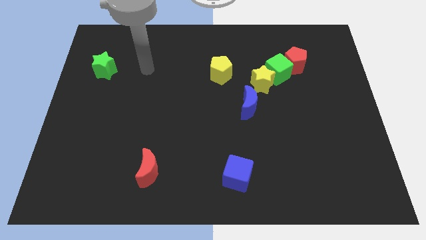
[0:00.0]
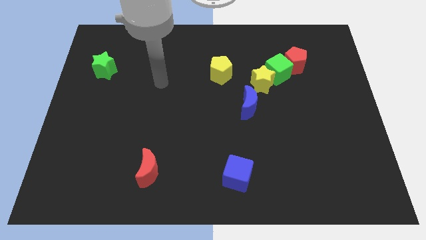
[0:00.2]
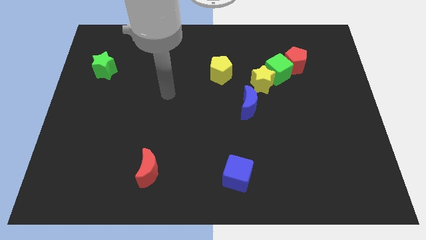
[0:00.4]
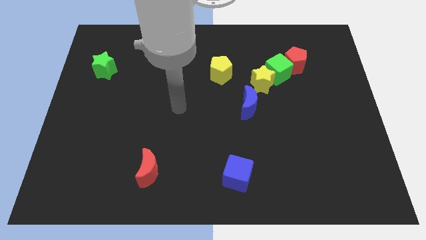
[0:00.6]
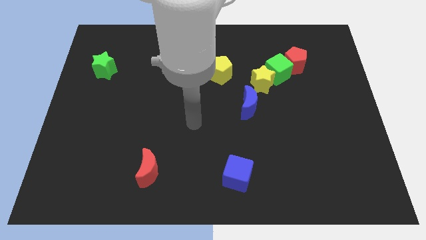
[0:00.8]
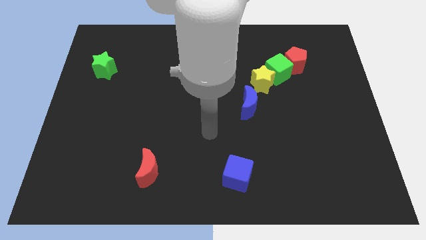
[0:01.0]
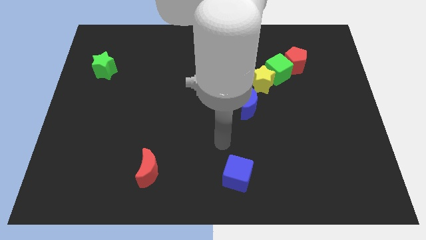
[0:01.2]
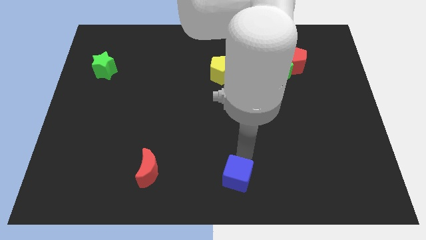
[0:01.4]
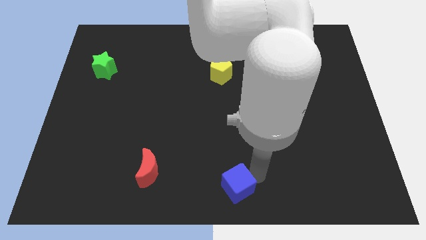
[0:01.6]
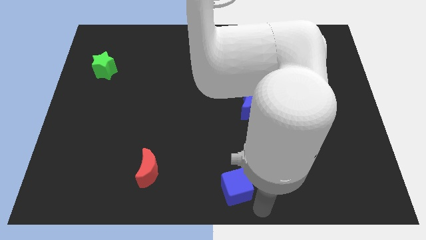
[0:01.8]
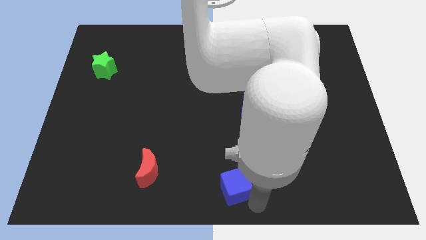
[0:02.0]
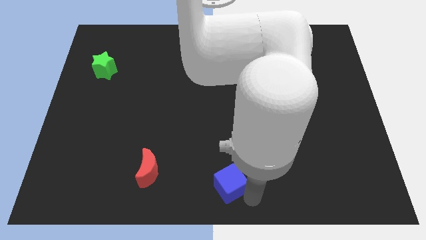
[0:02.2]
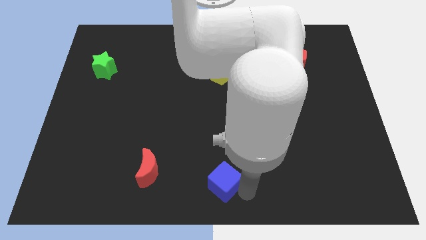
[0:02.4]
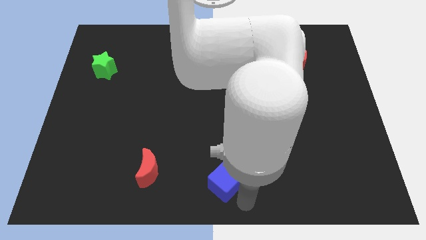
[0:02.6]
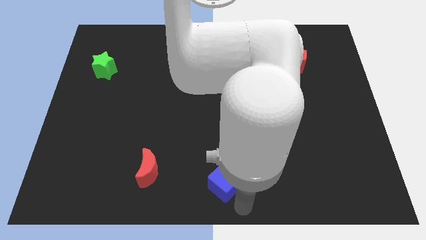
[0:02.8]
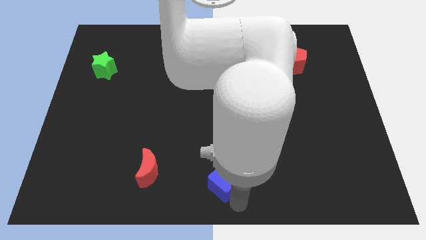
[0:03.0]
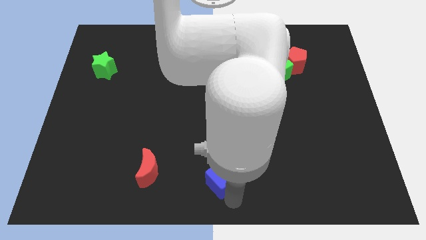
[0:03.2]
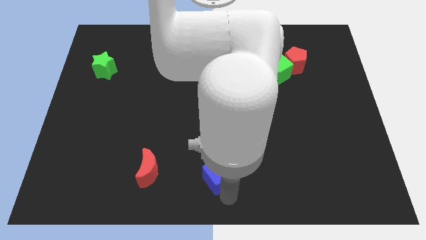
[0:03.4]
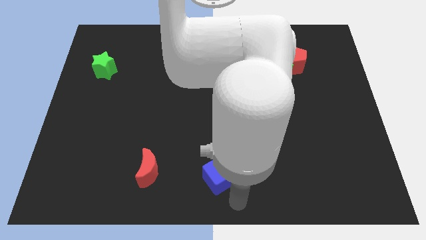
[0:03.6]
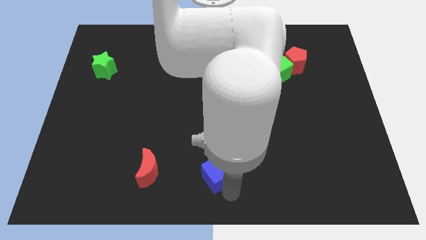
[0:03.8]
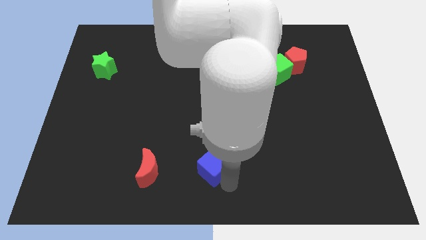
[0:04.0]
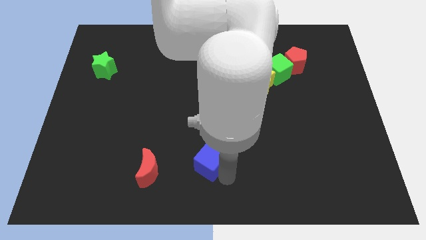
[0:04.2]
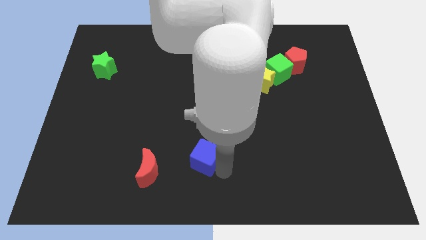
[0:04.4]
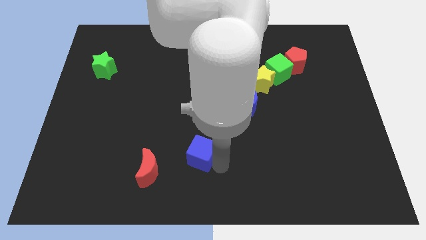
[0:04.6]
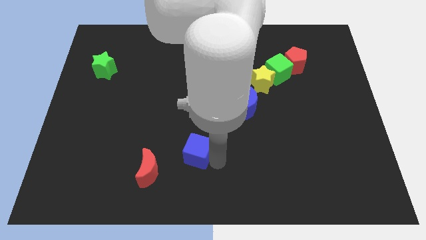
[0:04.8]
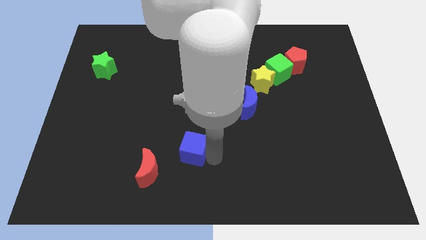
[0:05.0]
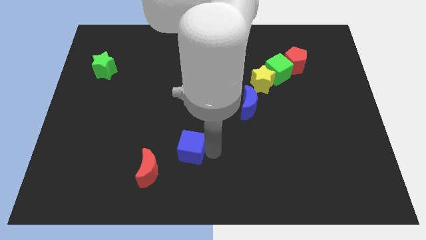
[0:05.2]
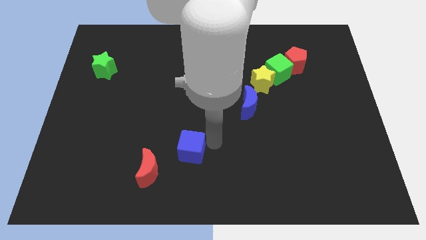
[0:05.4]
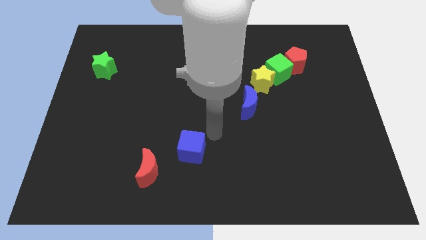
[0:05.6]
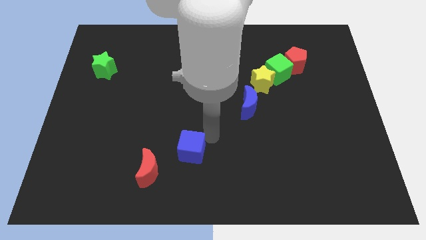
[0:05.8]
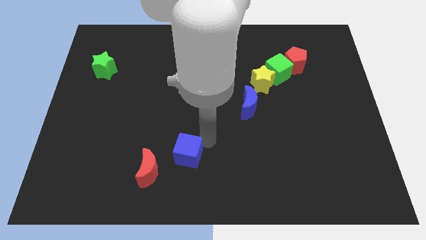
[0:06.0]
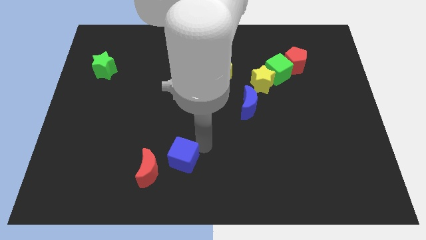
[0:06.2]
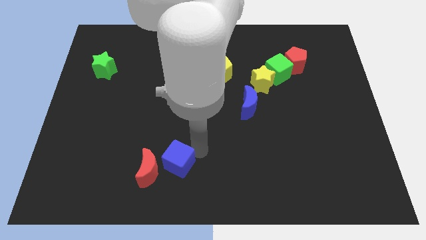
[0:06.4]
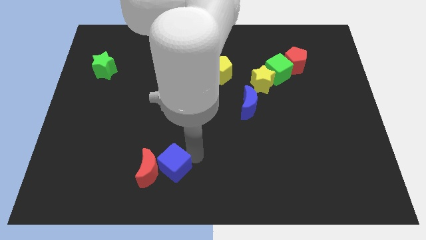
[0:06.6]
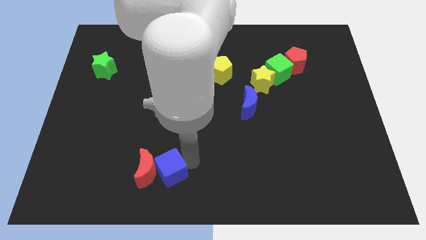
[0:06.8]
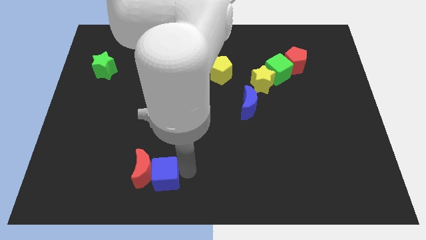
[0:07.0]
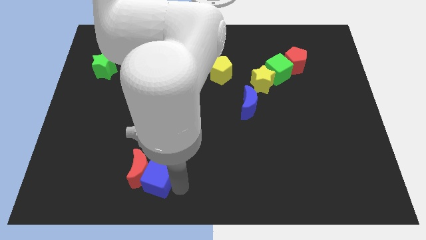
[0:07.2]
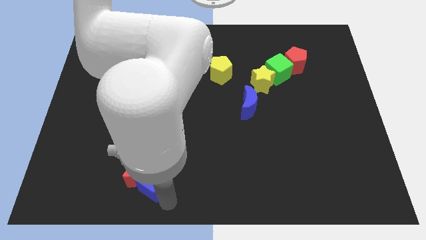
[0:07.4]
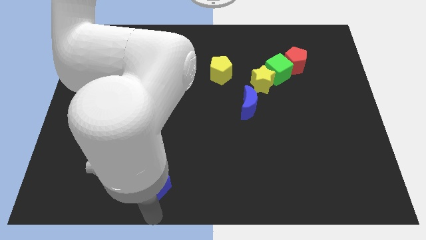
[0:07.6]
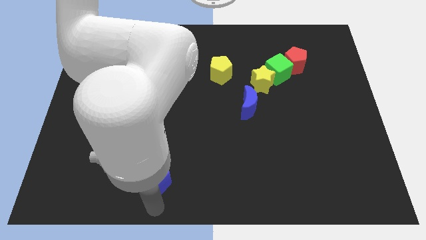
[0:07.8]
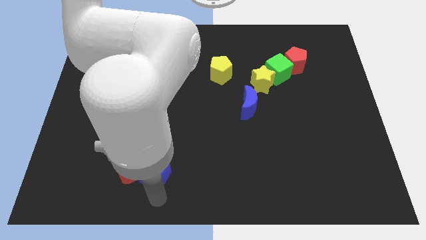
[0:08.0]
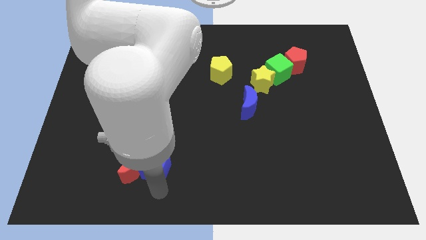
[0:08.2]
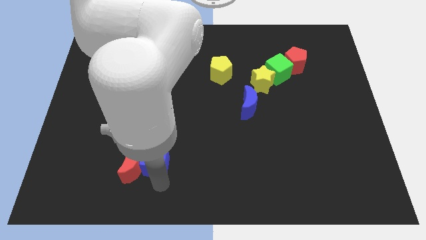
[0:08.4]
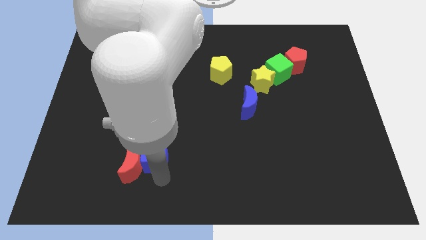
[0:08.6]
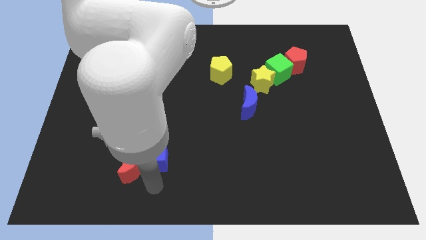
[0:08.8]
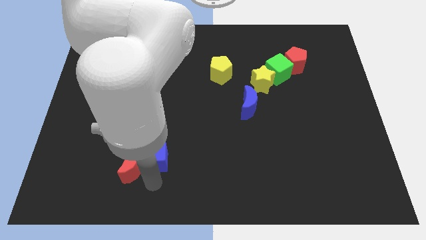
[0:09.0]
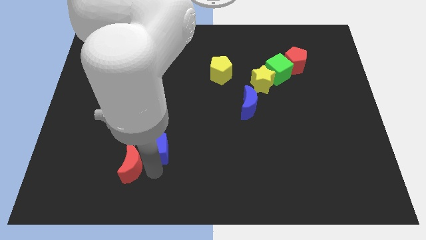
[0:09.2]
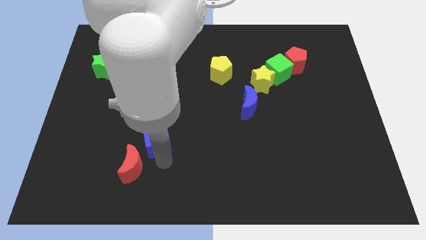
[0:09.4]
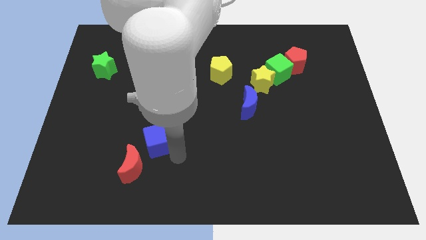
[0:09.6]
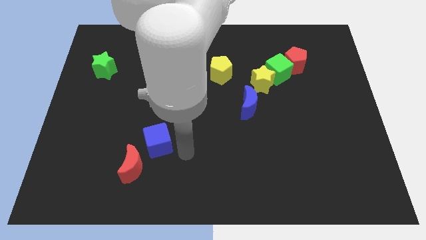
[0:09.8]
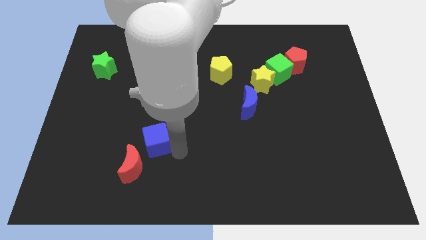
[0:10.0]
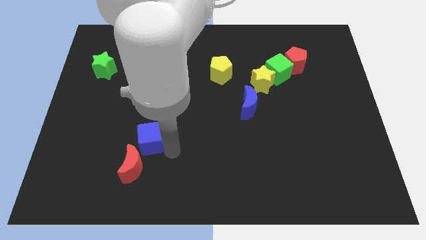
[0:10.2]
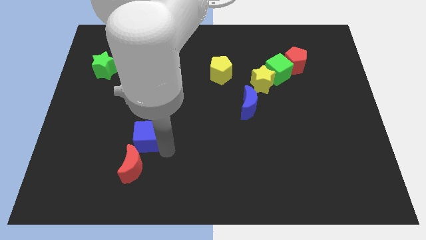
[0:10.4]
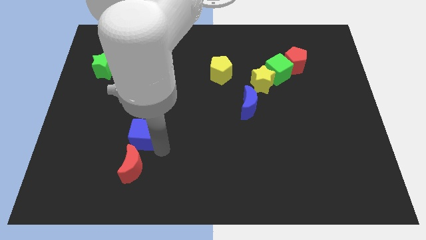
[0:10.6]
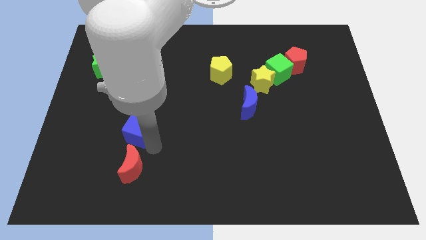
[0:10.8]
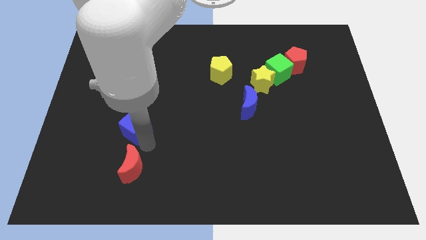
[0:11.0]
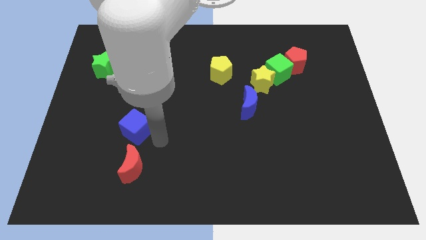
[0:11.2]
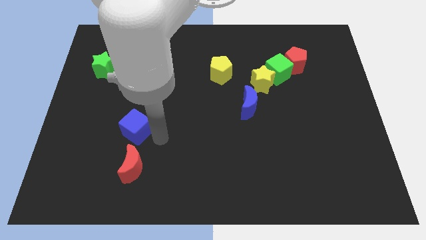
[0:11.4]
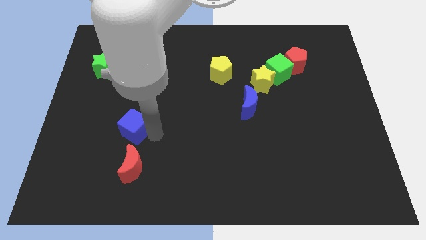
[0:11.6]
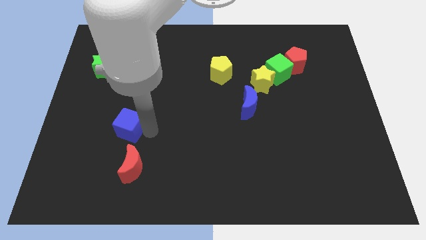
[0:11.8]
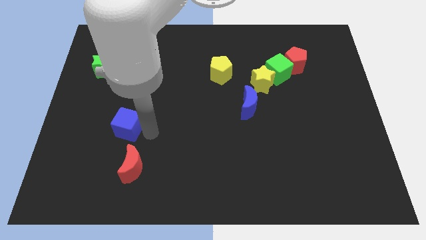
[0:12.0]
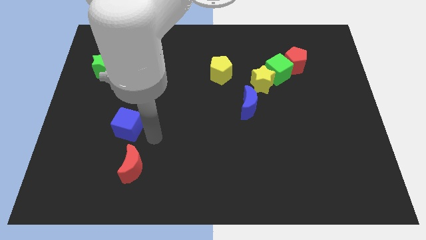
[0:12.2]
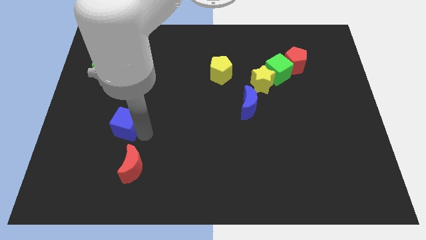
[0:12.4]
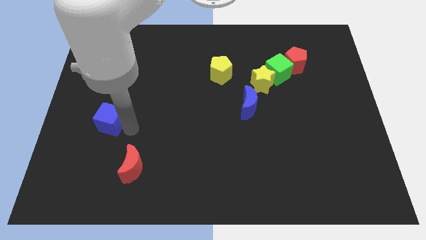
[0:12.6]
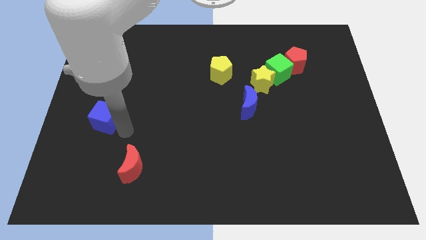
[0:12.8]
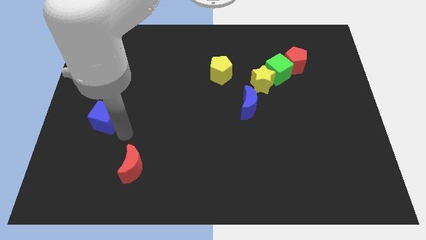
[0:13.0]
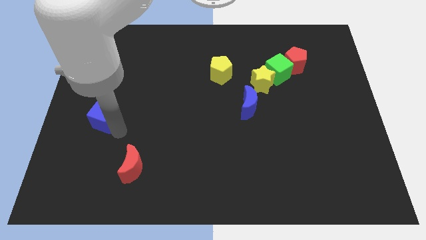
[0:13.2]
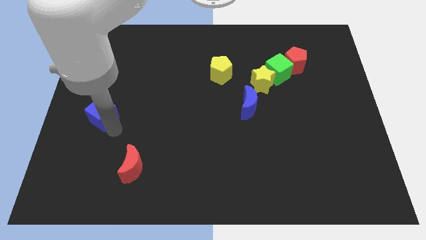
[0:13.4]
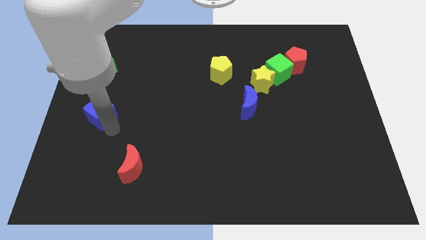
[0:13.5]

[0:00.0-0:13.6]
put the blue cube to the center left
